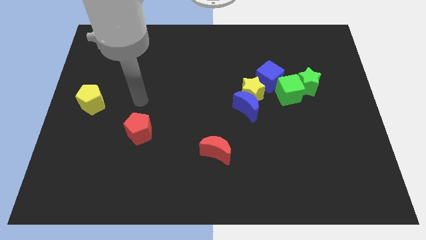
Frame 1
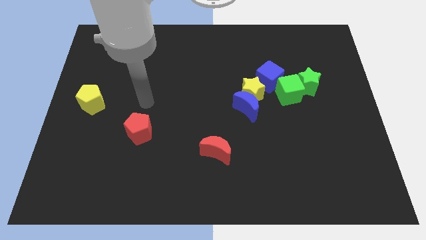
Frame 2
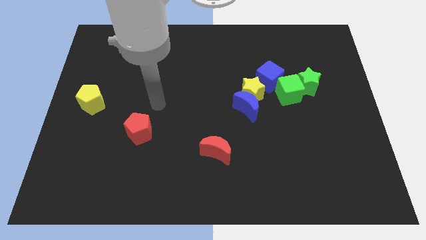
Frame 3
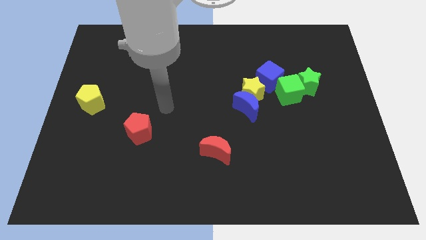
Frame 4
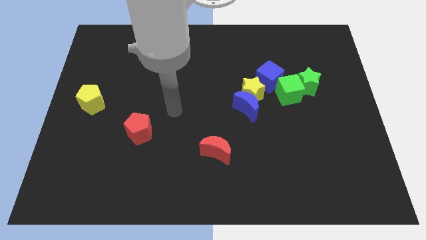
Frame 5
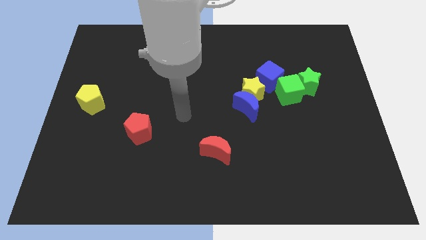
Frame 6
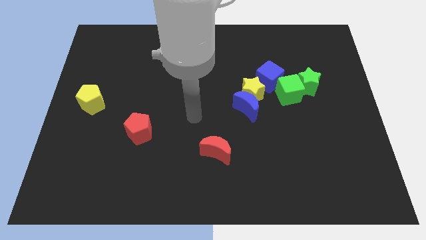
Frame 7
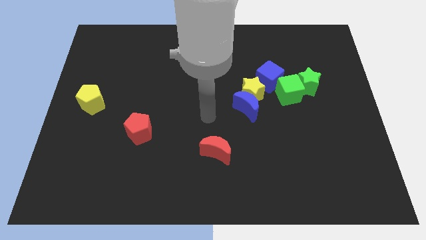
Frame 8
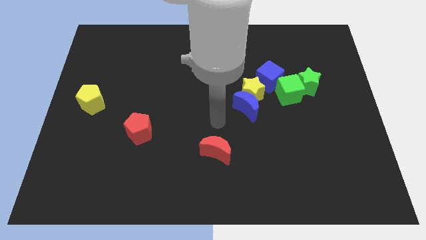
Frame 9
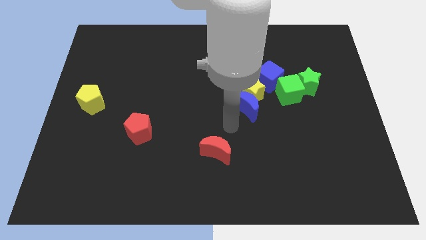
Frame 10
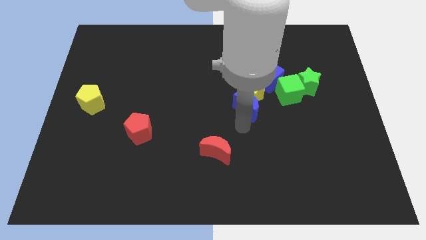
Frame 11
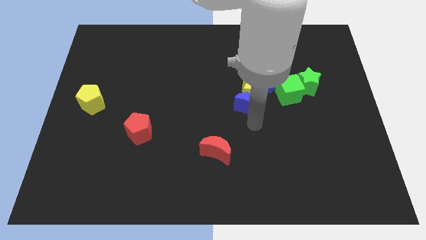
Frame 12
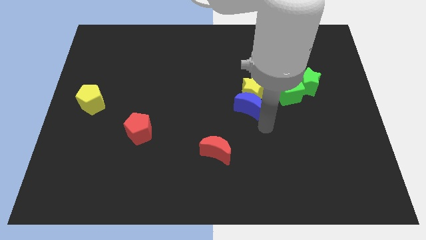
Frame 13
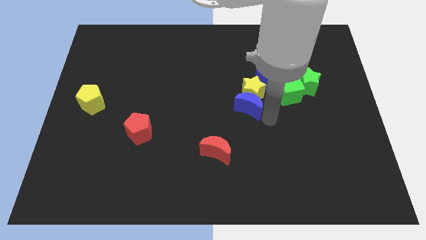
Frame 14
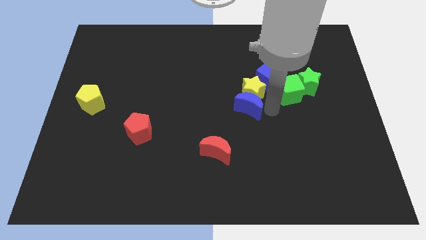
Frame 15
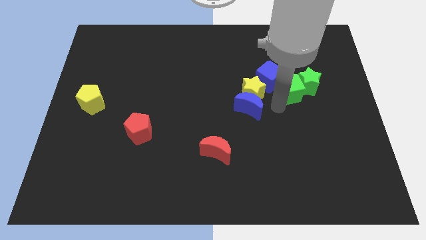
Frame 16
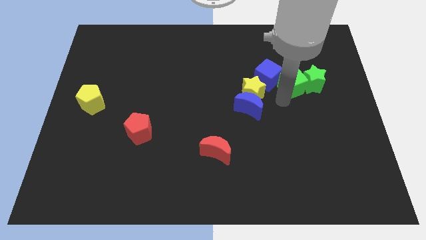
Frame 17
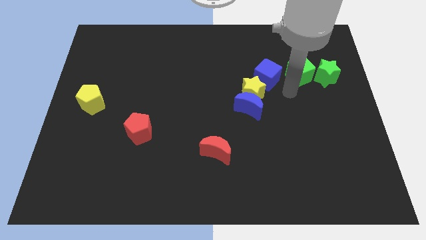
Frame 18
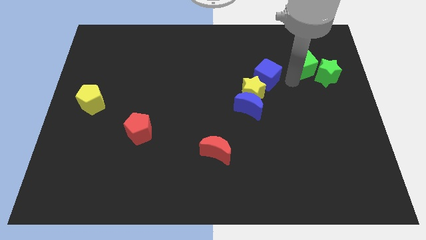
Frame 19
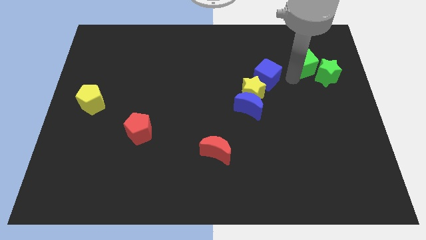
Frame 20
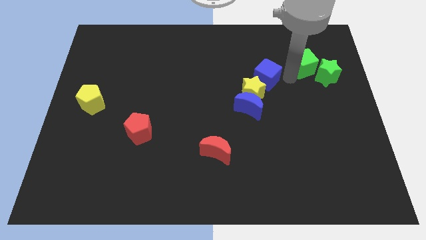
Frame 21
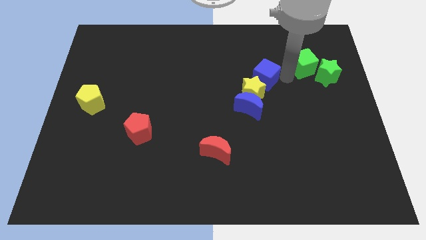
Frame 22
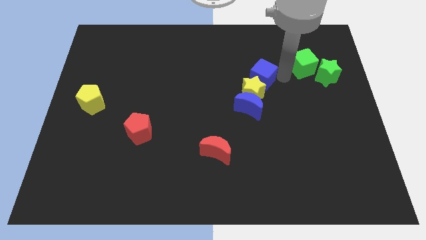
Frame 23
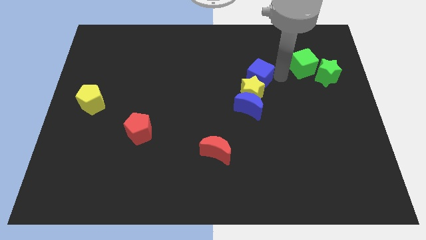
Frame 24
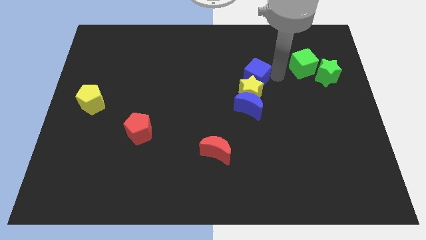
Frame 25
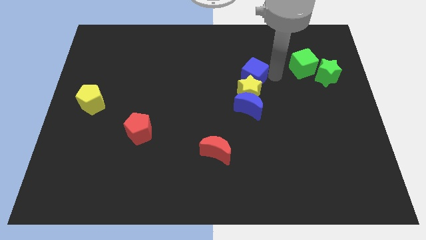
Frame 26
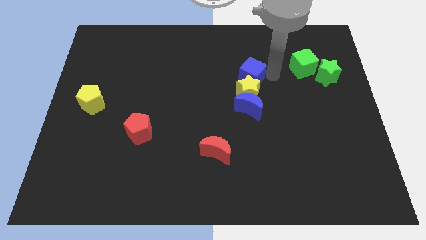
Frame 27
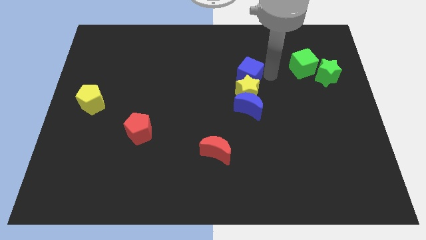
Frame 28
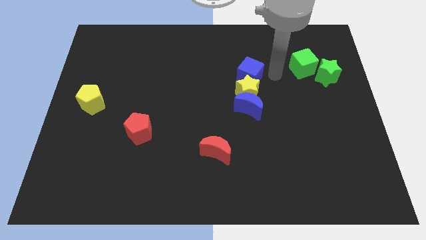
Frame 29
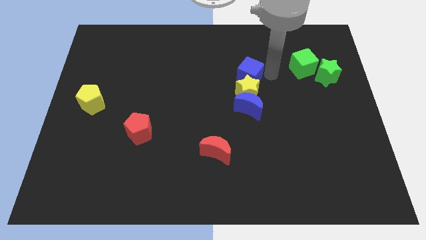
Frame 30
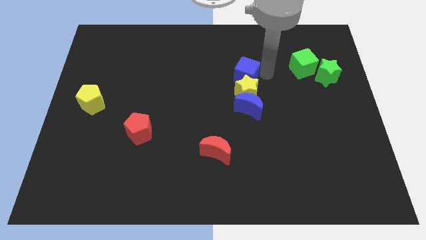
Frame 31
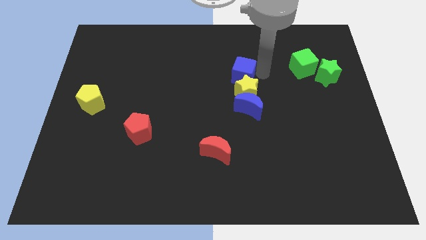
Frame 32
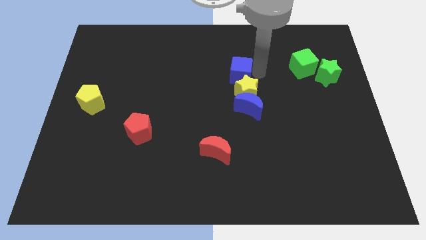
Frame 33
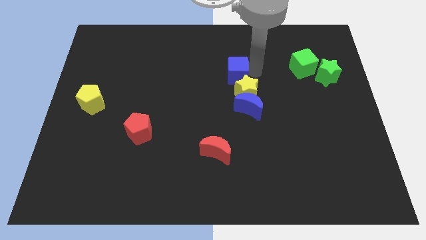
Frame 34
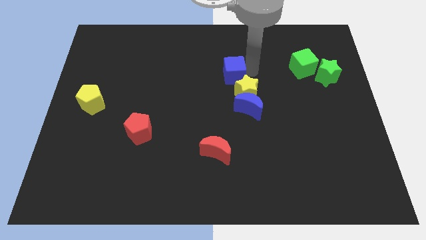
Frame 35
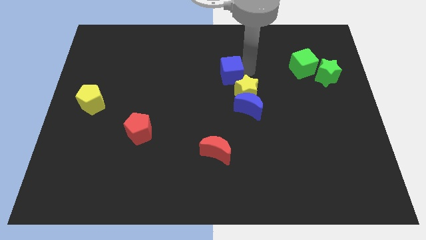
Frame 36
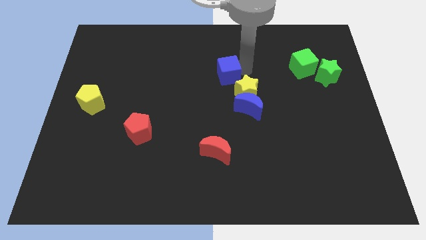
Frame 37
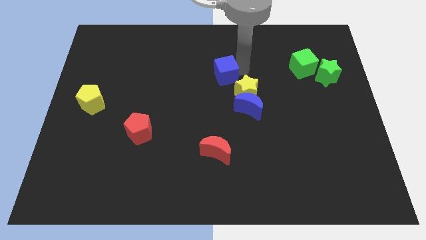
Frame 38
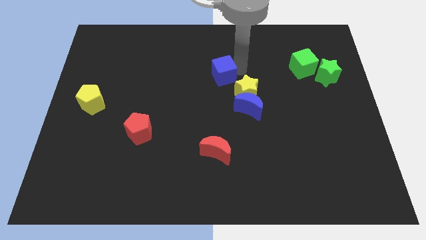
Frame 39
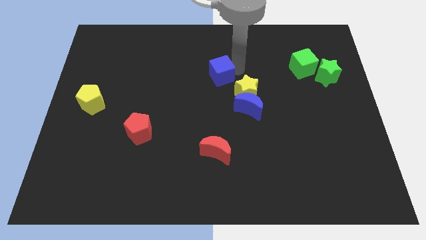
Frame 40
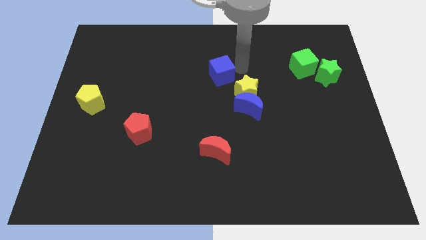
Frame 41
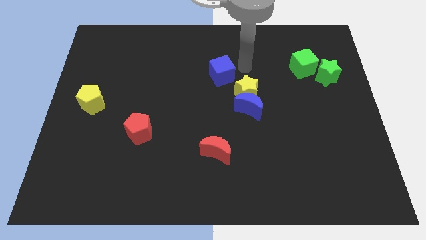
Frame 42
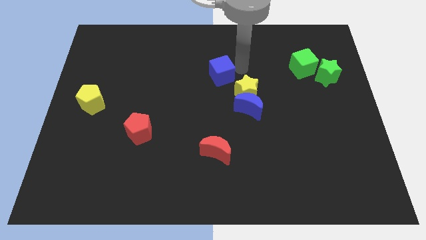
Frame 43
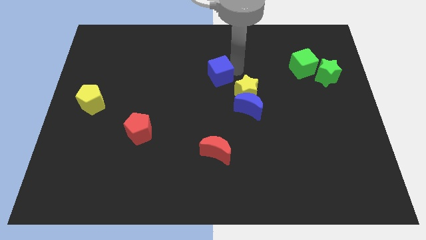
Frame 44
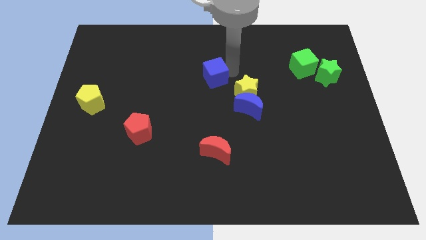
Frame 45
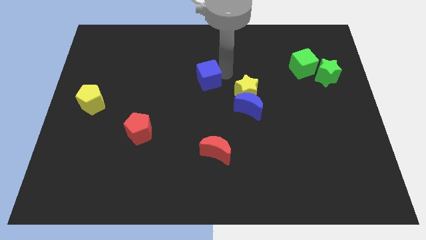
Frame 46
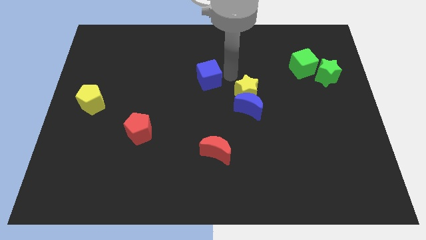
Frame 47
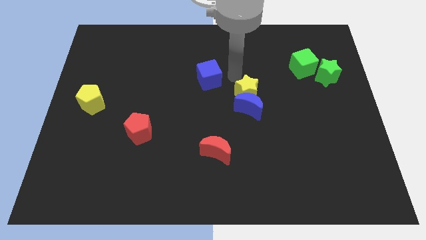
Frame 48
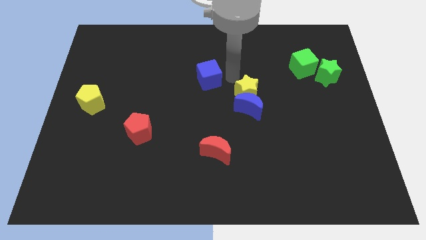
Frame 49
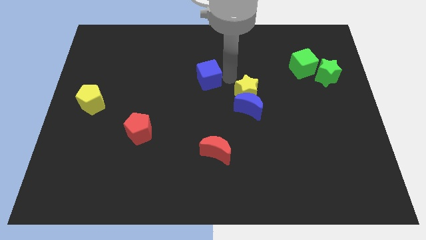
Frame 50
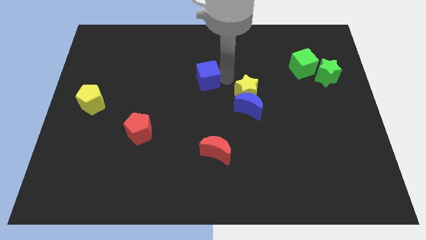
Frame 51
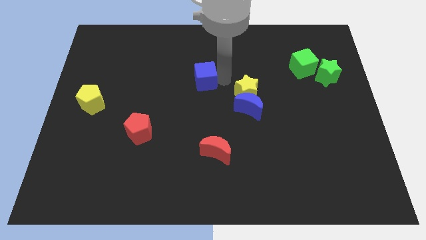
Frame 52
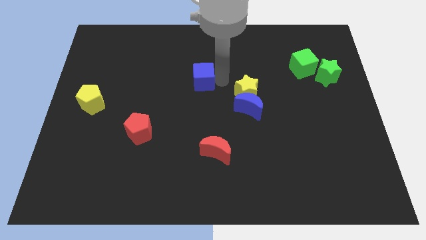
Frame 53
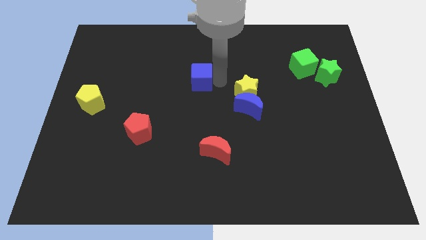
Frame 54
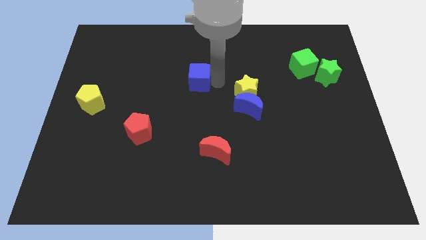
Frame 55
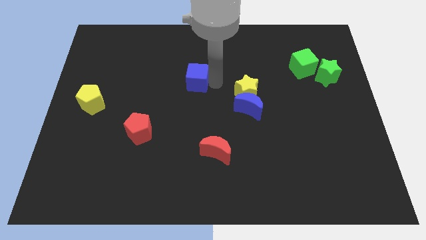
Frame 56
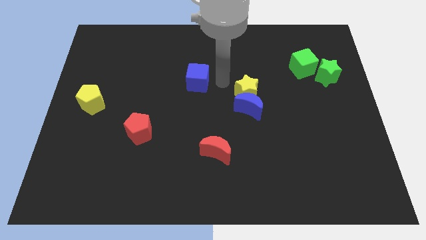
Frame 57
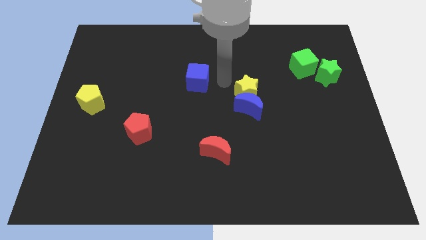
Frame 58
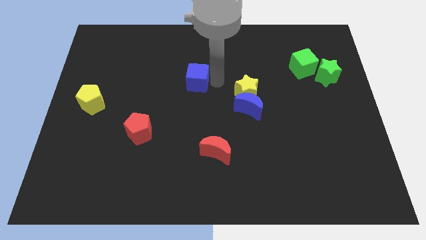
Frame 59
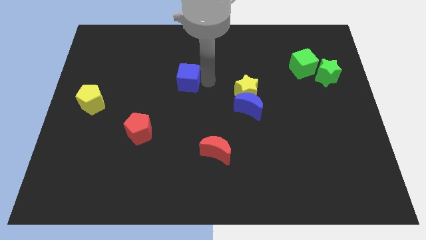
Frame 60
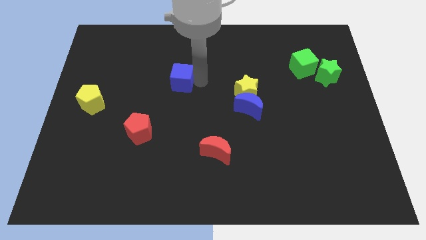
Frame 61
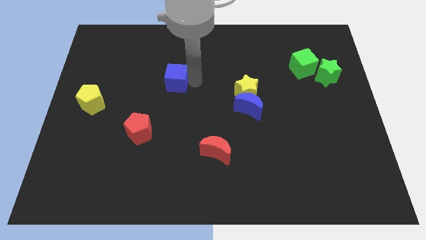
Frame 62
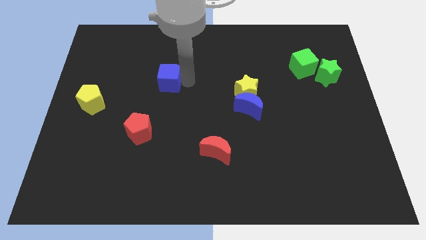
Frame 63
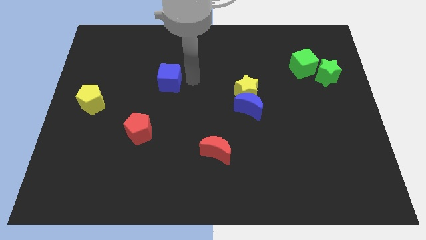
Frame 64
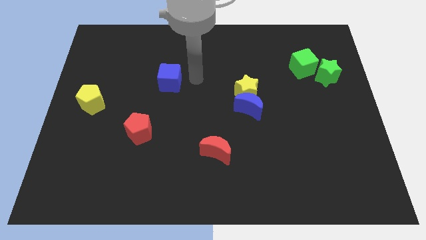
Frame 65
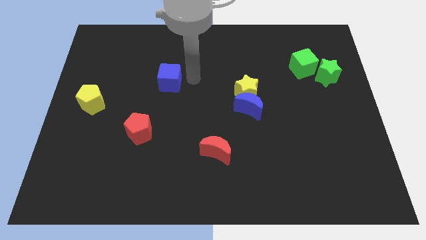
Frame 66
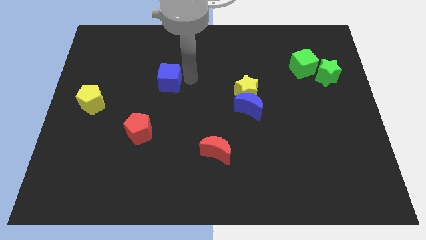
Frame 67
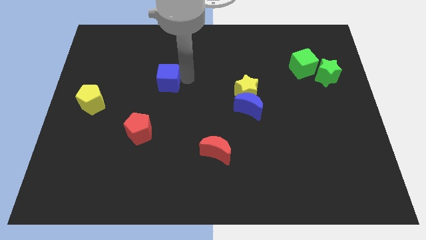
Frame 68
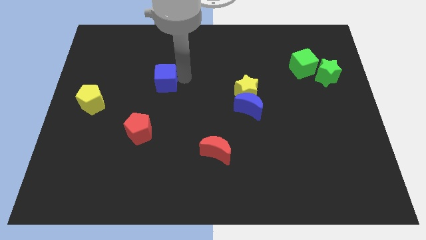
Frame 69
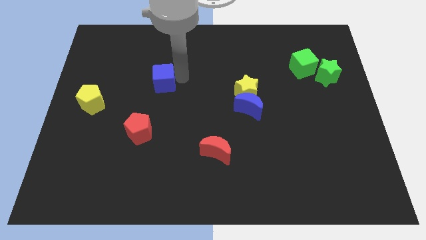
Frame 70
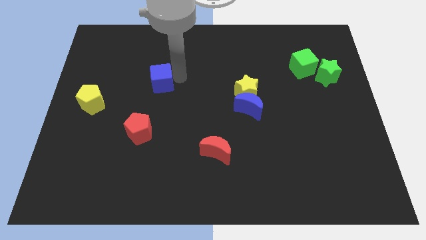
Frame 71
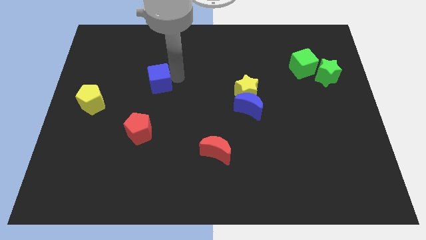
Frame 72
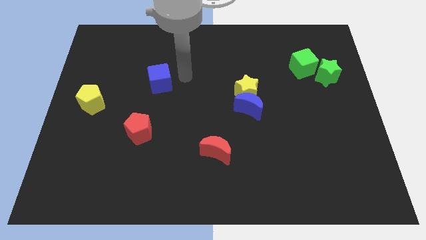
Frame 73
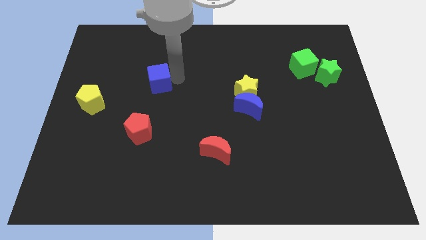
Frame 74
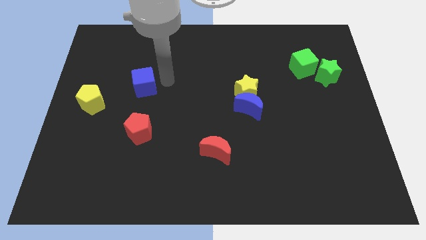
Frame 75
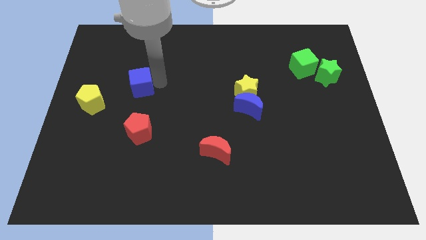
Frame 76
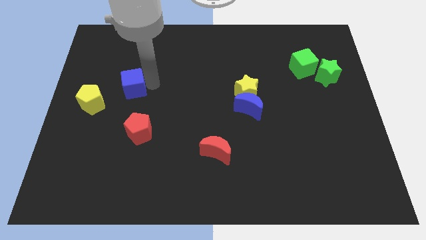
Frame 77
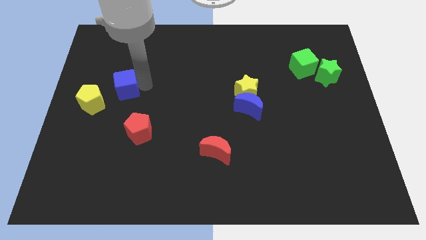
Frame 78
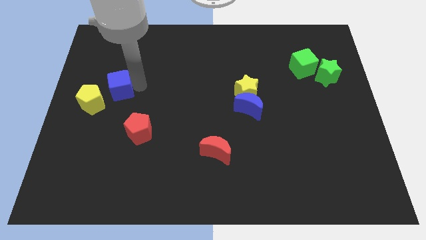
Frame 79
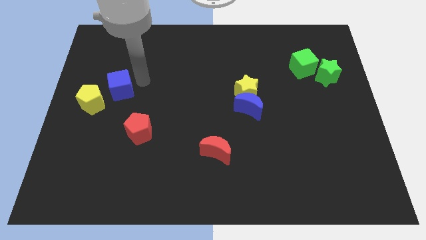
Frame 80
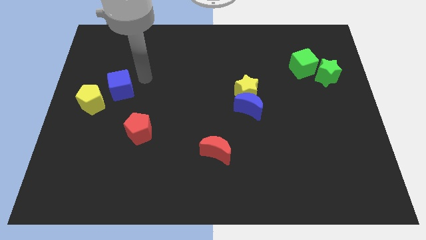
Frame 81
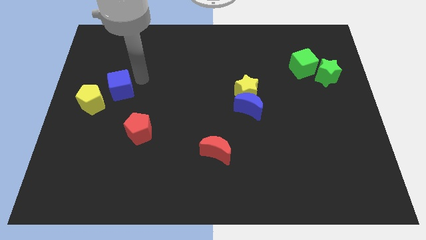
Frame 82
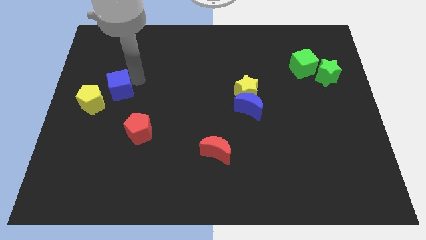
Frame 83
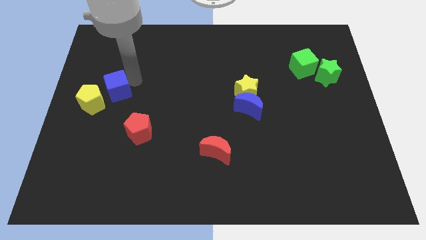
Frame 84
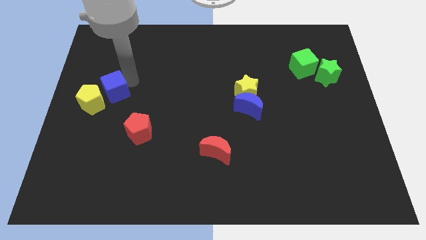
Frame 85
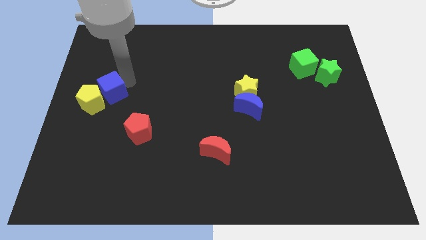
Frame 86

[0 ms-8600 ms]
put the blue cube to the yellow pentagon
